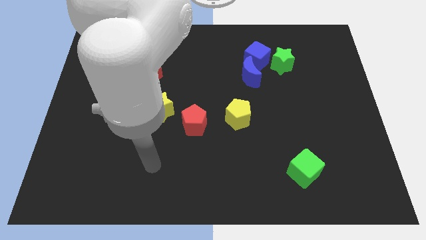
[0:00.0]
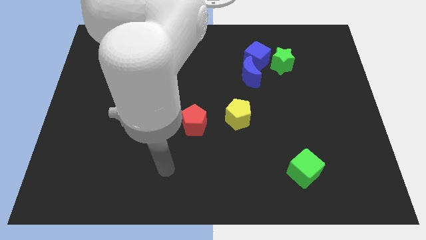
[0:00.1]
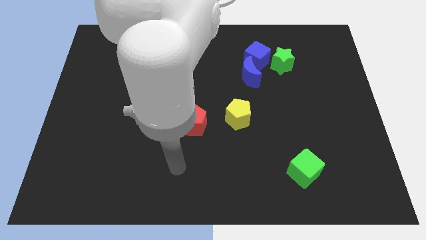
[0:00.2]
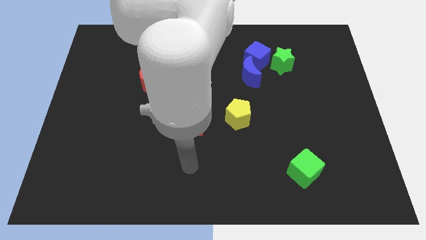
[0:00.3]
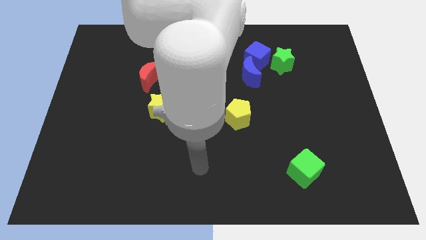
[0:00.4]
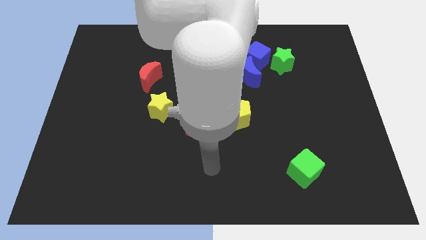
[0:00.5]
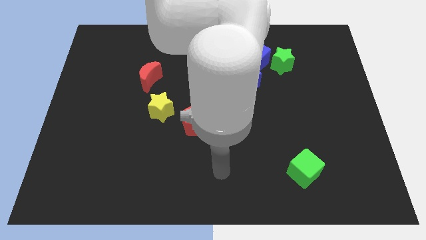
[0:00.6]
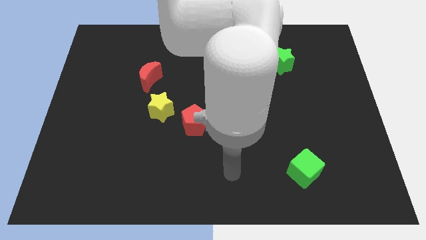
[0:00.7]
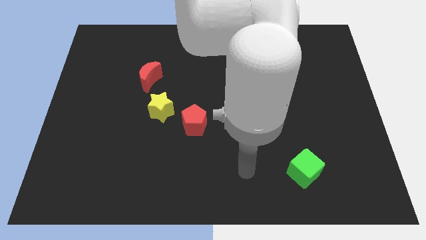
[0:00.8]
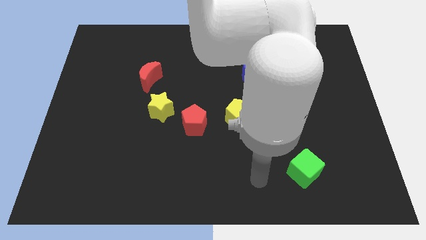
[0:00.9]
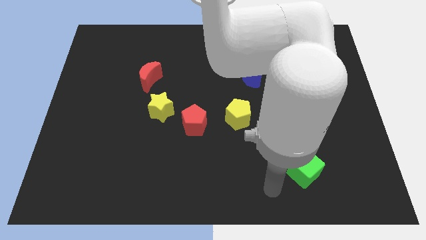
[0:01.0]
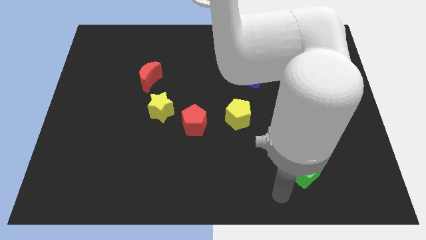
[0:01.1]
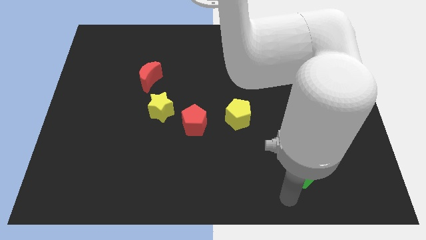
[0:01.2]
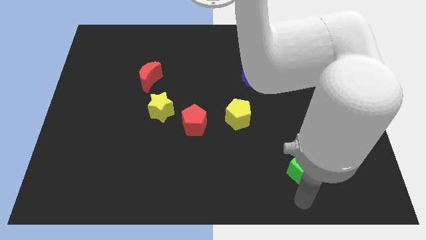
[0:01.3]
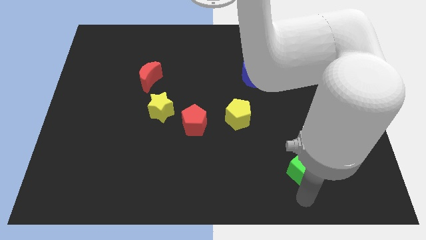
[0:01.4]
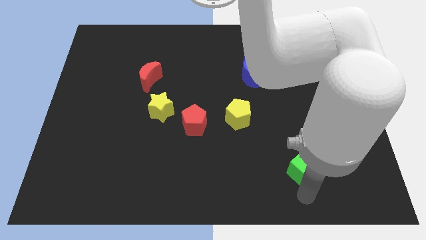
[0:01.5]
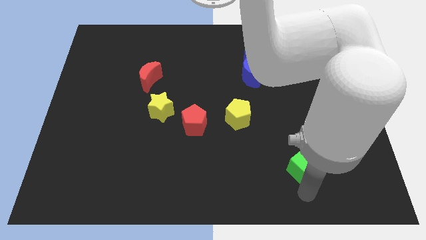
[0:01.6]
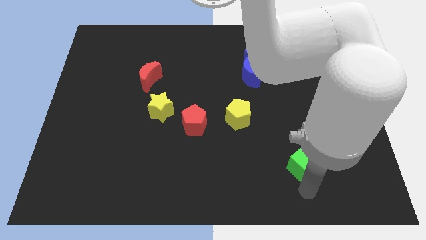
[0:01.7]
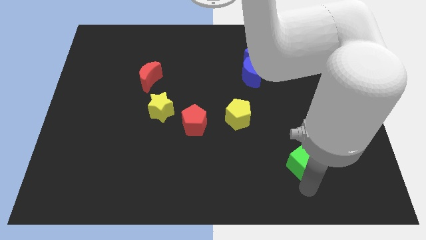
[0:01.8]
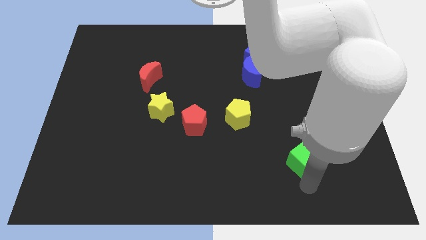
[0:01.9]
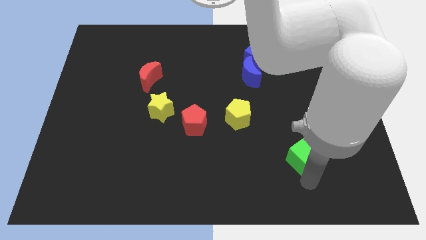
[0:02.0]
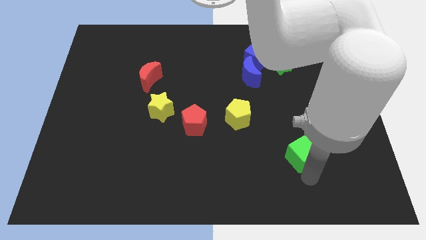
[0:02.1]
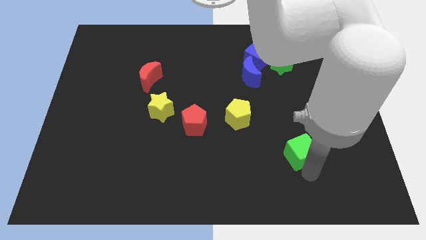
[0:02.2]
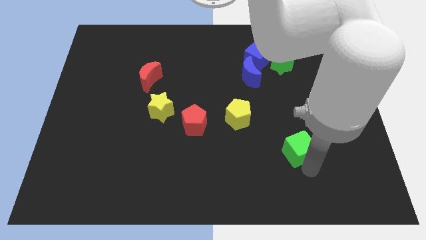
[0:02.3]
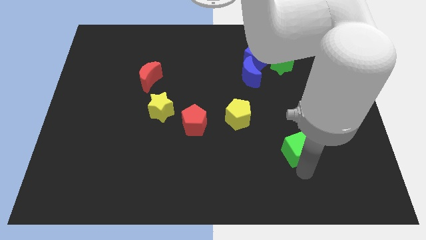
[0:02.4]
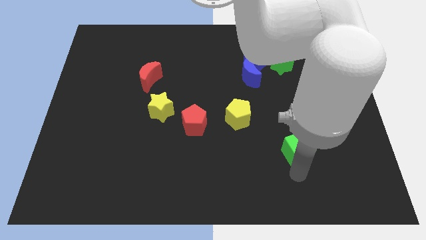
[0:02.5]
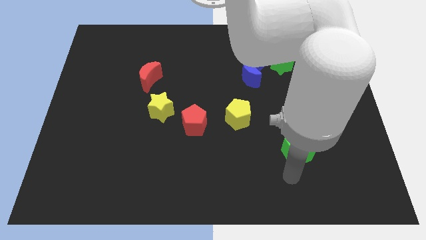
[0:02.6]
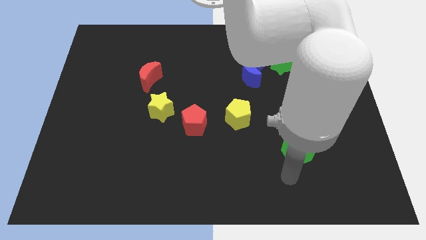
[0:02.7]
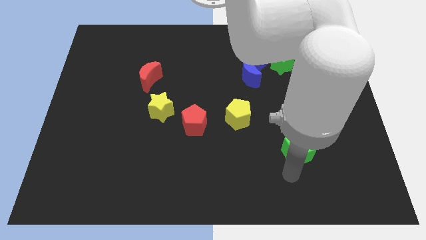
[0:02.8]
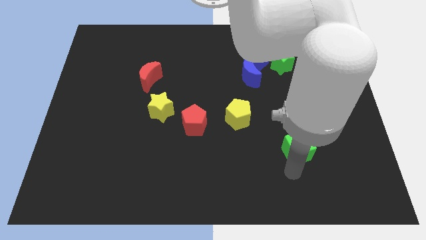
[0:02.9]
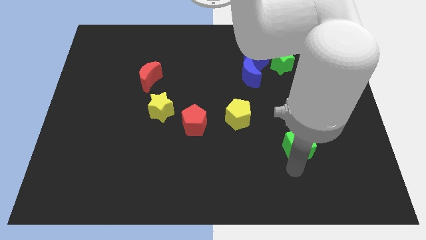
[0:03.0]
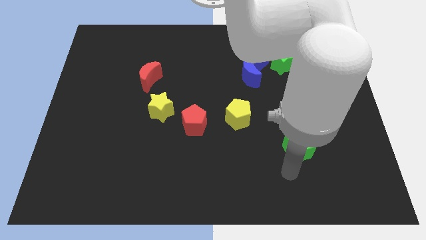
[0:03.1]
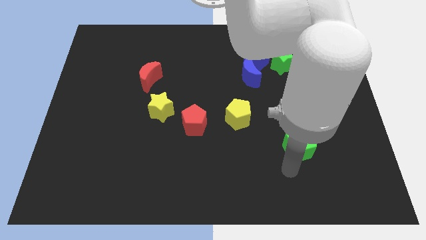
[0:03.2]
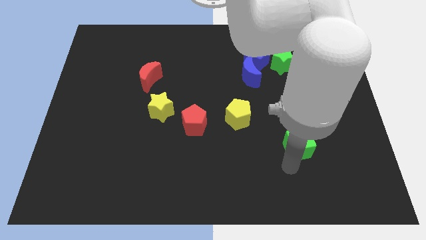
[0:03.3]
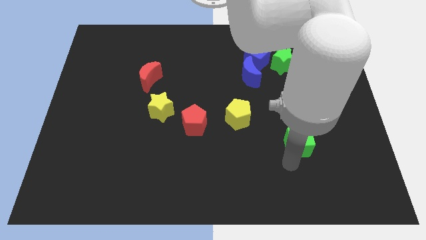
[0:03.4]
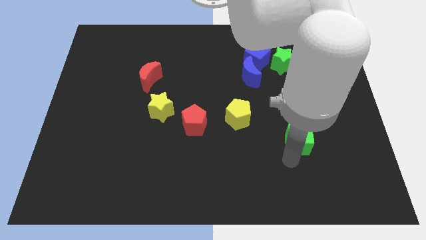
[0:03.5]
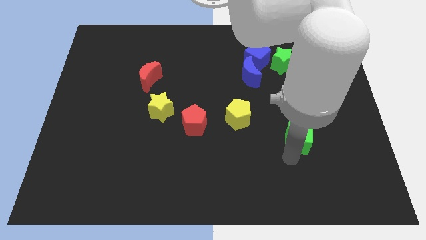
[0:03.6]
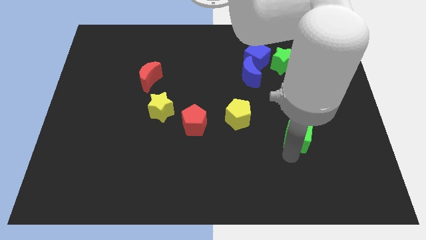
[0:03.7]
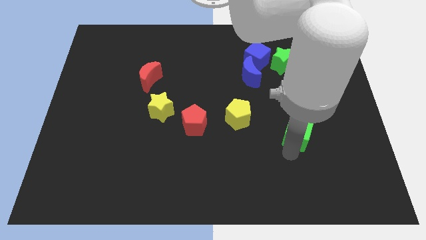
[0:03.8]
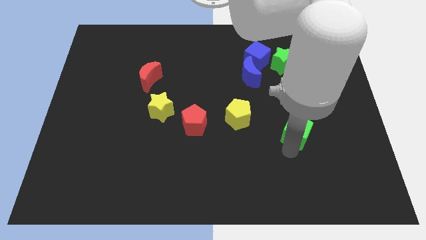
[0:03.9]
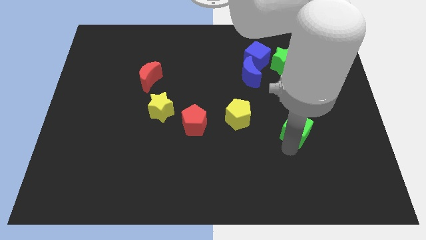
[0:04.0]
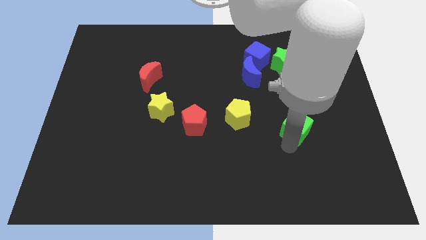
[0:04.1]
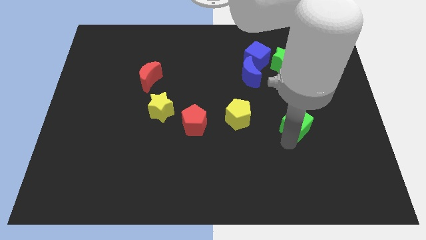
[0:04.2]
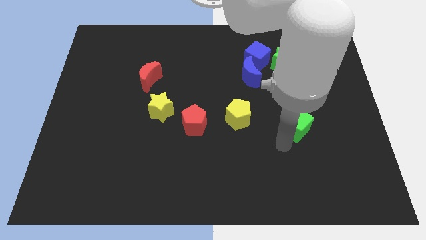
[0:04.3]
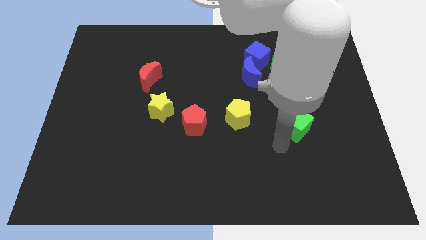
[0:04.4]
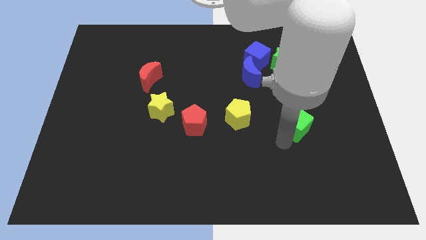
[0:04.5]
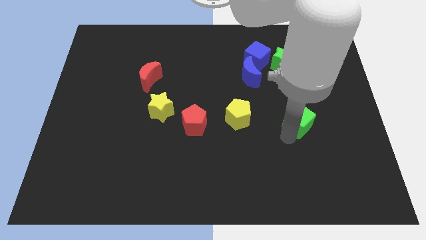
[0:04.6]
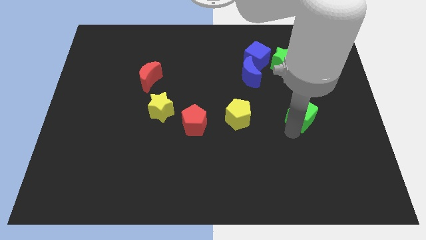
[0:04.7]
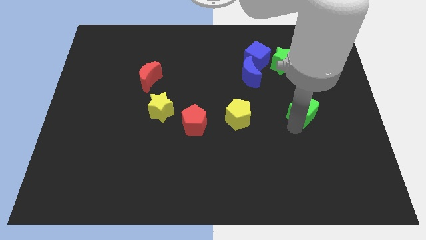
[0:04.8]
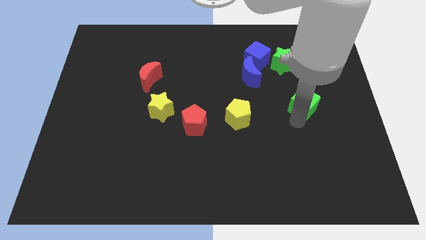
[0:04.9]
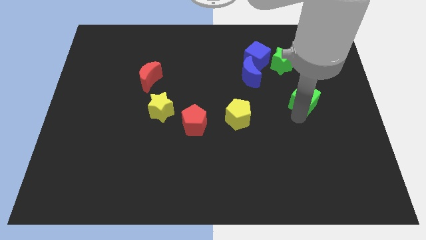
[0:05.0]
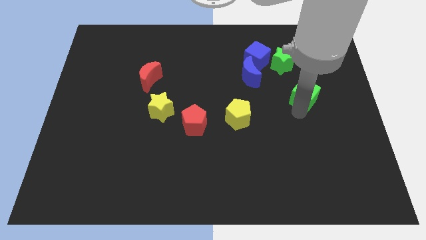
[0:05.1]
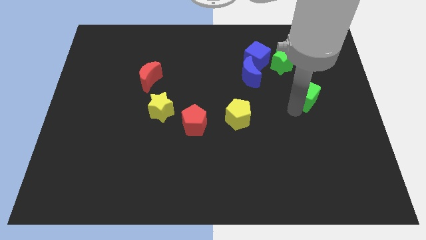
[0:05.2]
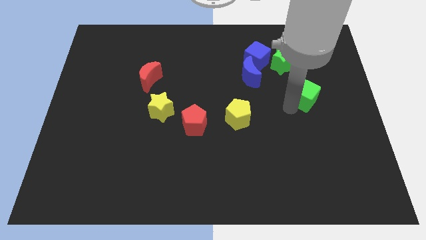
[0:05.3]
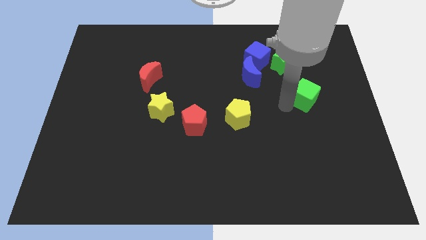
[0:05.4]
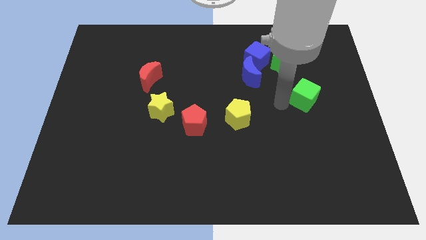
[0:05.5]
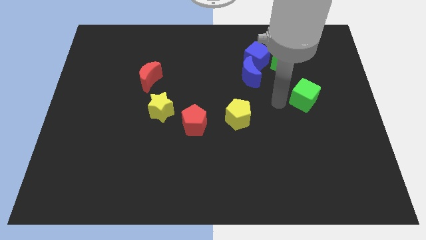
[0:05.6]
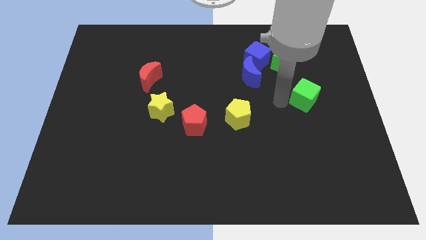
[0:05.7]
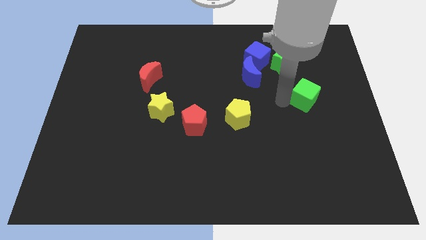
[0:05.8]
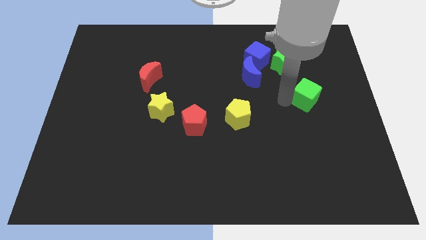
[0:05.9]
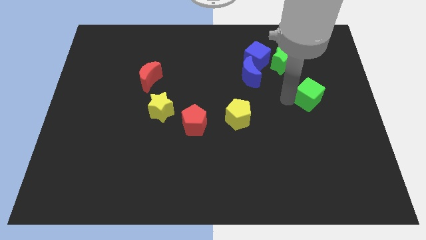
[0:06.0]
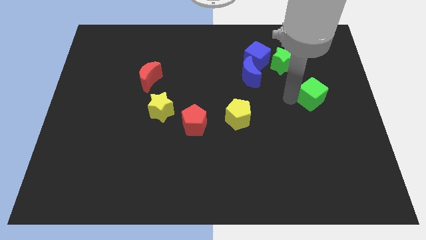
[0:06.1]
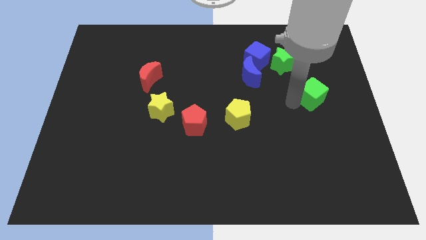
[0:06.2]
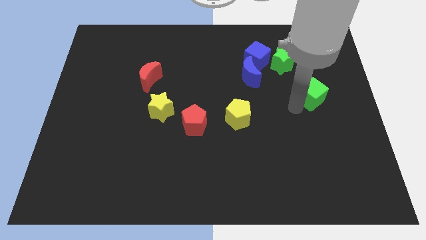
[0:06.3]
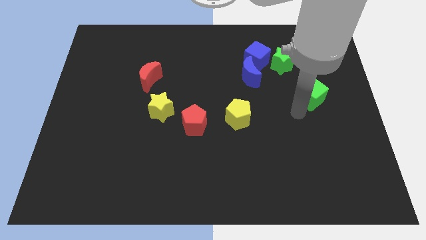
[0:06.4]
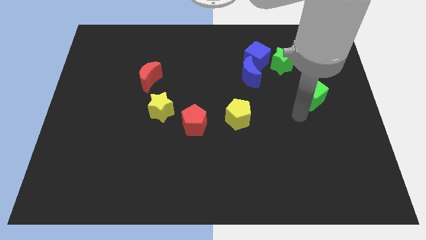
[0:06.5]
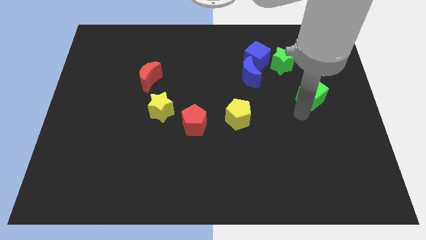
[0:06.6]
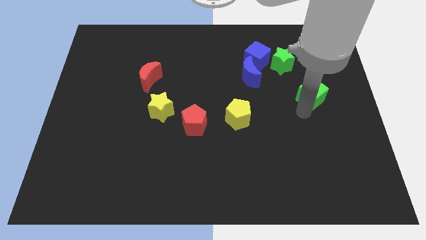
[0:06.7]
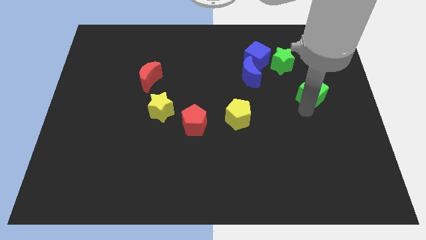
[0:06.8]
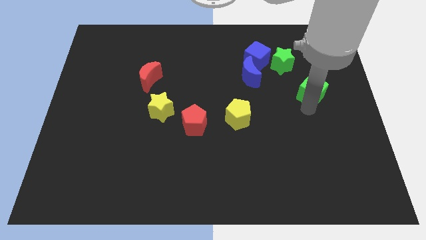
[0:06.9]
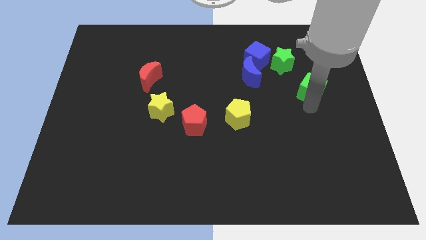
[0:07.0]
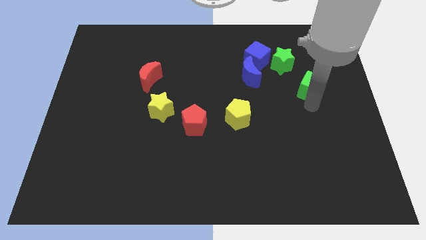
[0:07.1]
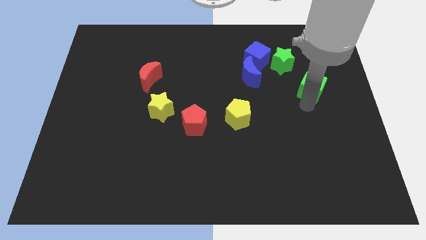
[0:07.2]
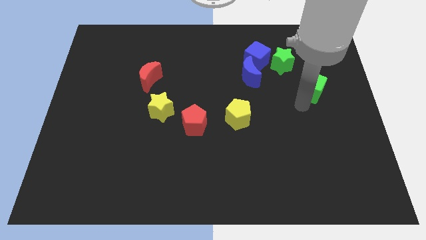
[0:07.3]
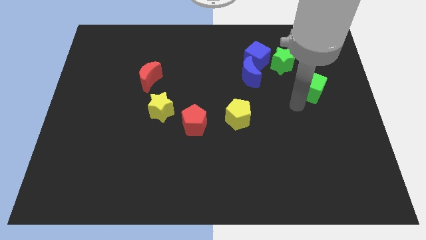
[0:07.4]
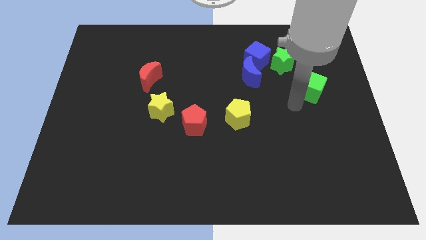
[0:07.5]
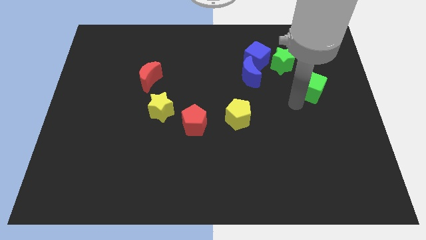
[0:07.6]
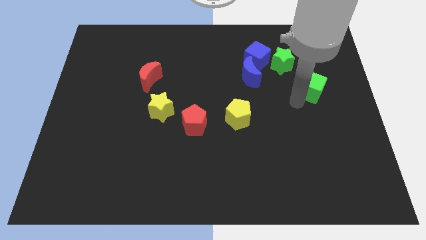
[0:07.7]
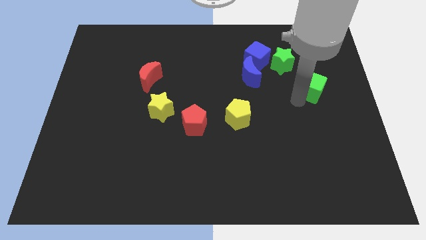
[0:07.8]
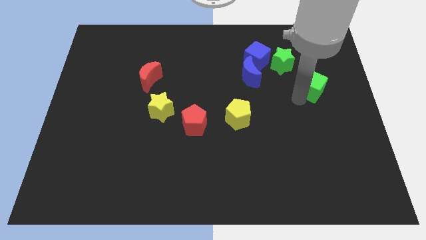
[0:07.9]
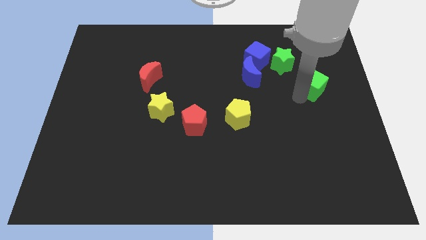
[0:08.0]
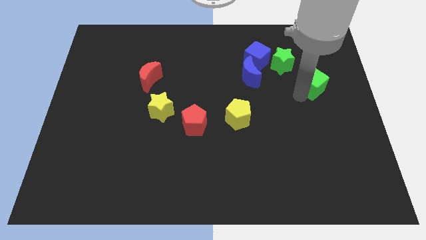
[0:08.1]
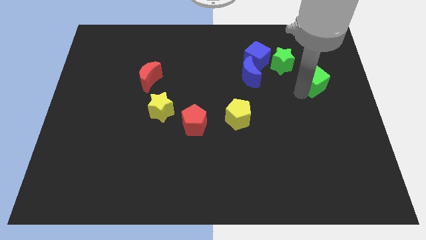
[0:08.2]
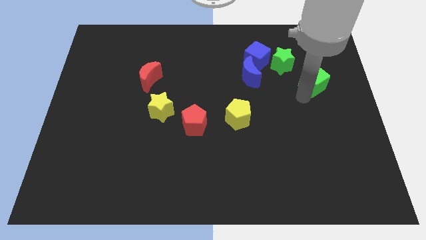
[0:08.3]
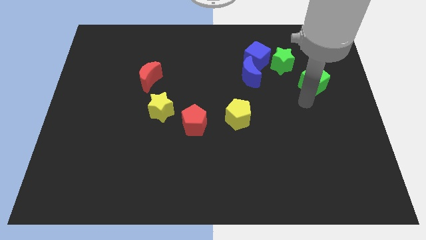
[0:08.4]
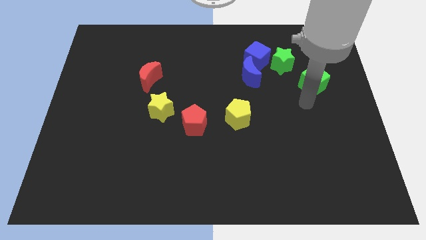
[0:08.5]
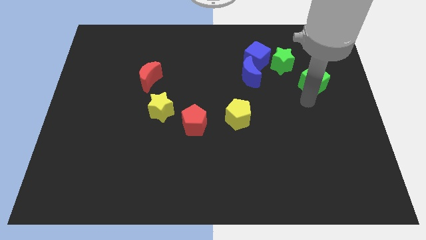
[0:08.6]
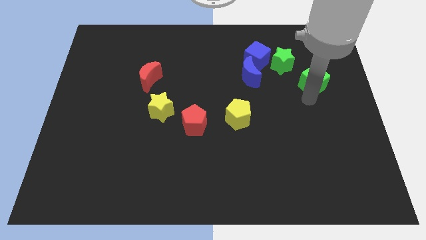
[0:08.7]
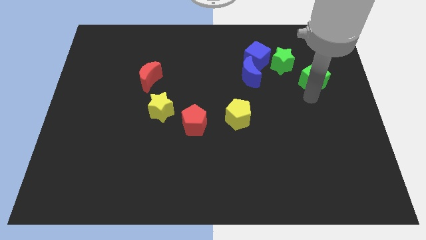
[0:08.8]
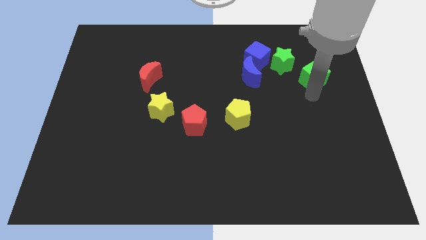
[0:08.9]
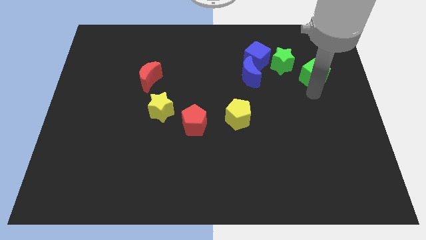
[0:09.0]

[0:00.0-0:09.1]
push the green cube right of the green star
